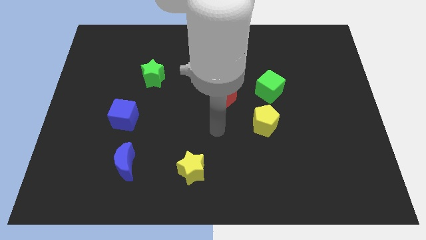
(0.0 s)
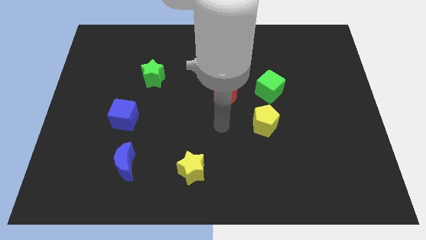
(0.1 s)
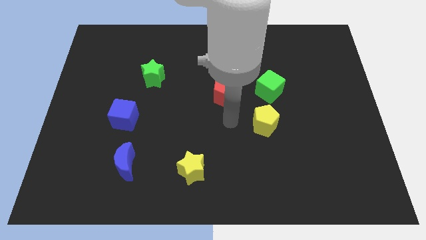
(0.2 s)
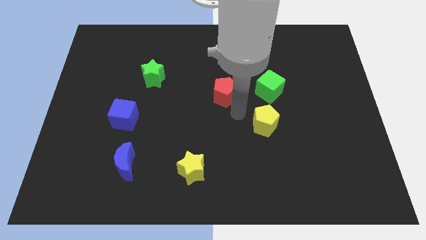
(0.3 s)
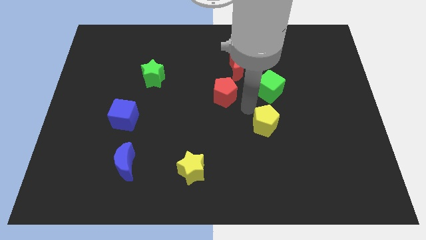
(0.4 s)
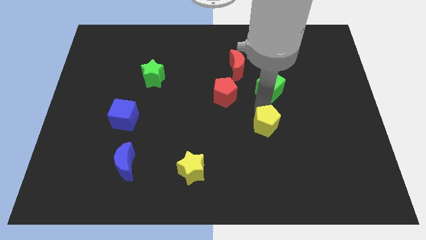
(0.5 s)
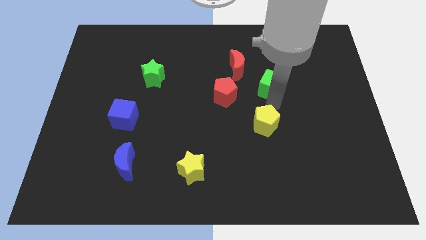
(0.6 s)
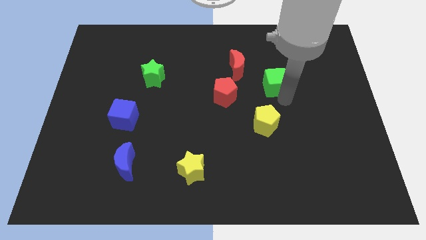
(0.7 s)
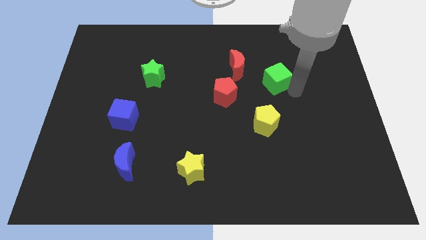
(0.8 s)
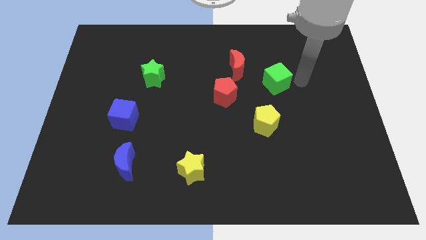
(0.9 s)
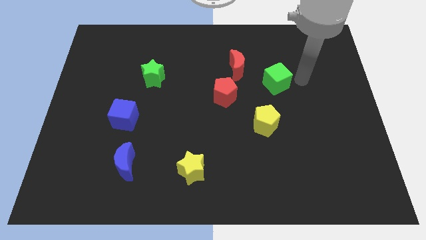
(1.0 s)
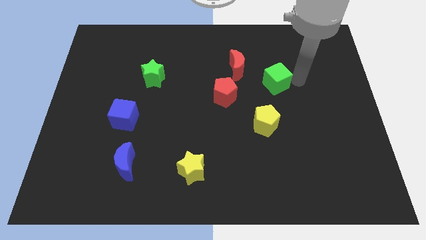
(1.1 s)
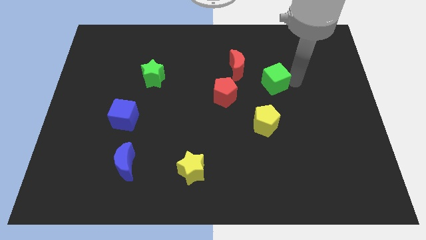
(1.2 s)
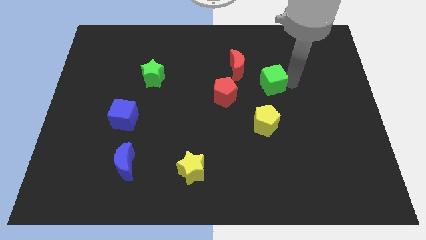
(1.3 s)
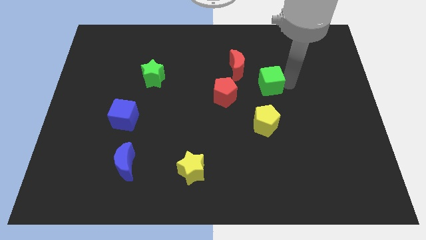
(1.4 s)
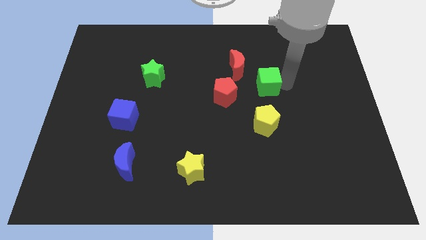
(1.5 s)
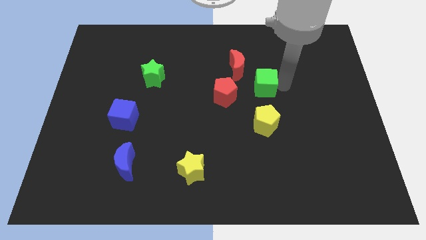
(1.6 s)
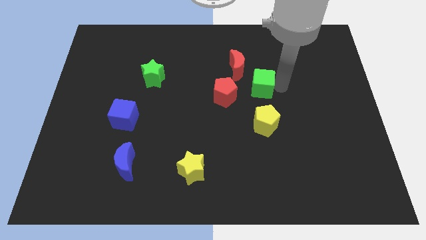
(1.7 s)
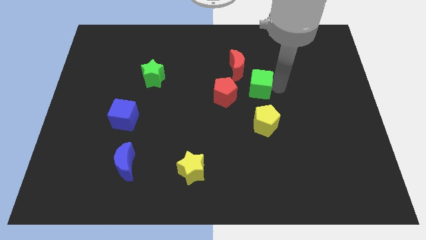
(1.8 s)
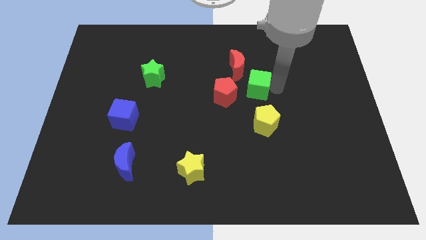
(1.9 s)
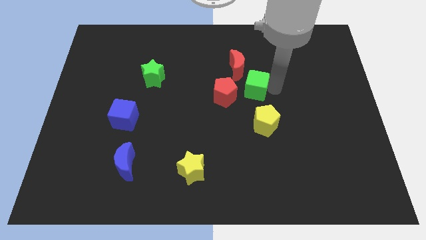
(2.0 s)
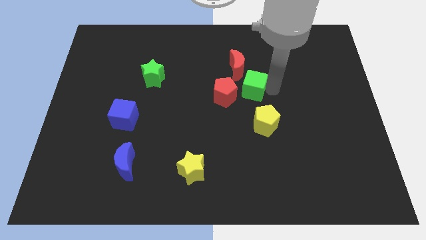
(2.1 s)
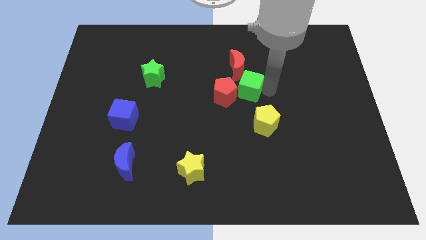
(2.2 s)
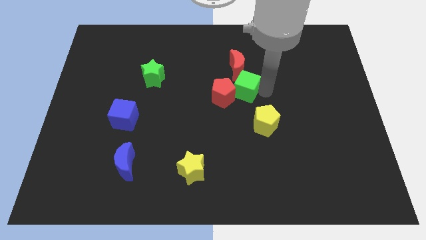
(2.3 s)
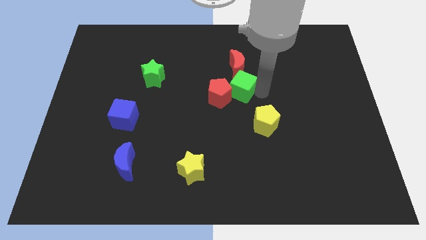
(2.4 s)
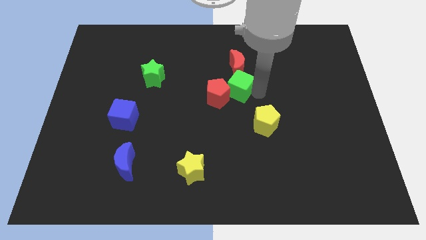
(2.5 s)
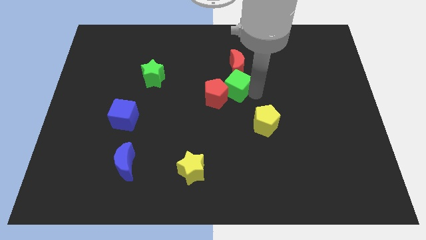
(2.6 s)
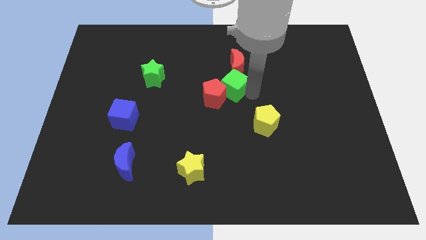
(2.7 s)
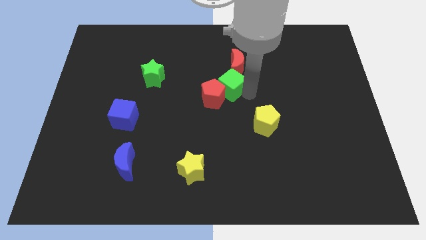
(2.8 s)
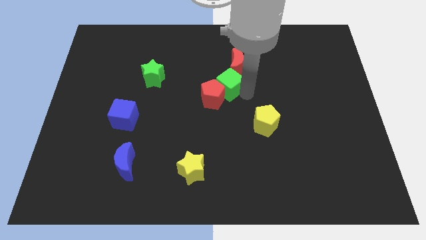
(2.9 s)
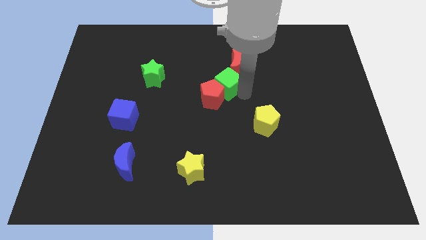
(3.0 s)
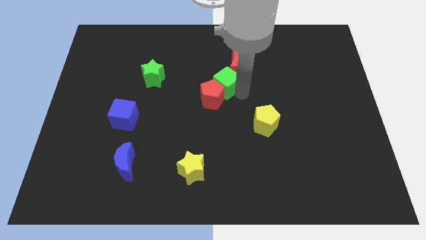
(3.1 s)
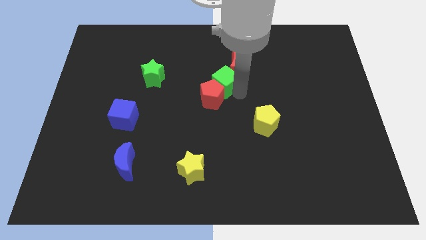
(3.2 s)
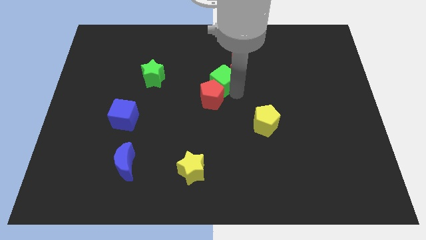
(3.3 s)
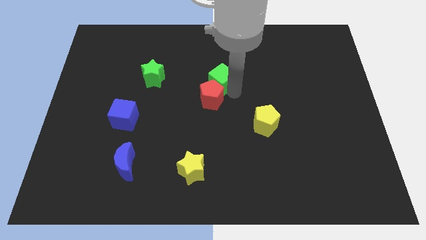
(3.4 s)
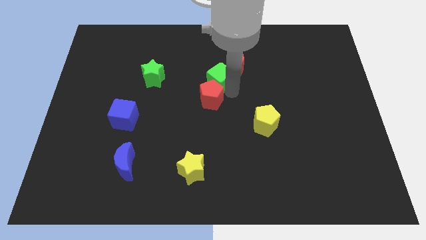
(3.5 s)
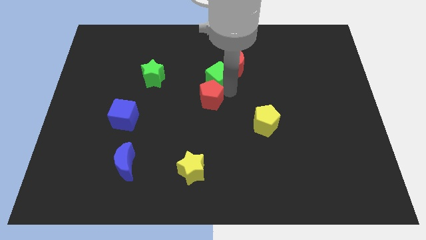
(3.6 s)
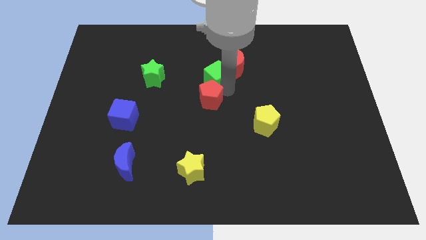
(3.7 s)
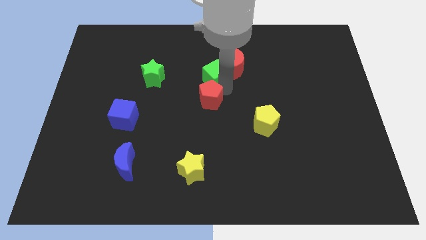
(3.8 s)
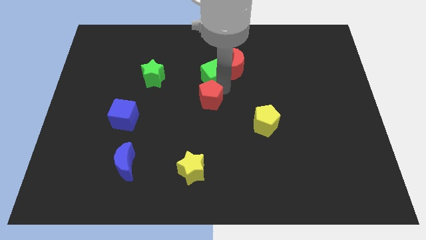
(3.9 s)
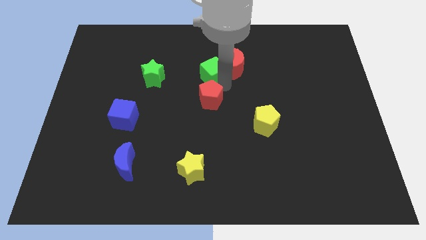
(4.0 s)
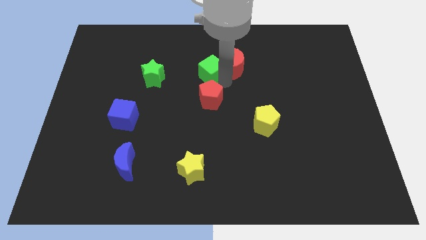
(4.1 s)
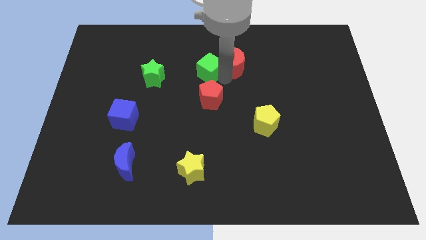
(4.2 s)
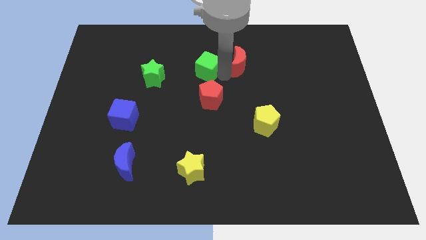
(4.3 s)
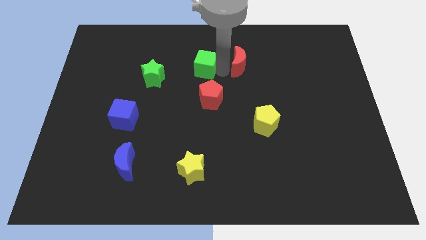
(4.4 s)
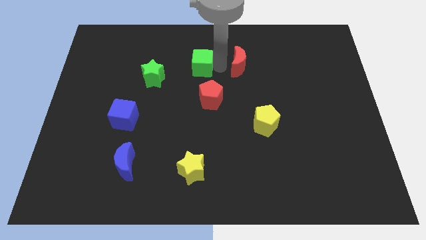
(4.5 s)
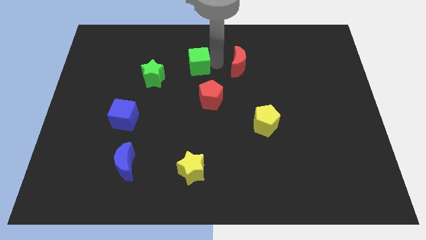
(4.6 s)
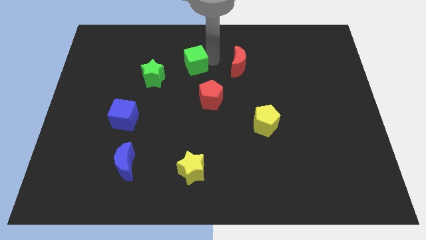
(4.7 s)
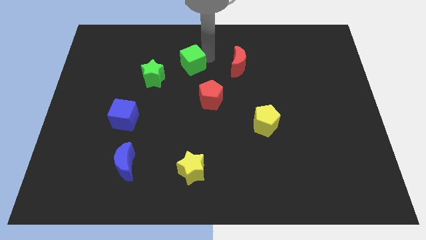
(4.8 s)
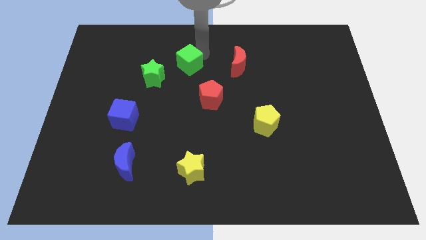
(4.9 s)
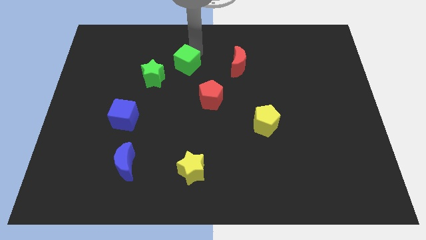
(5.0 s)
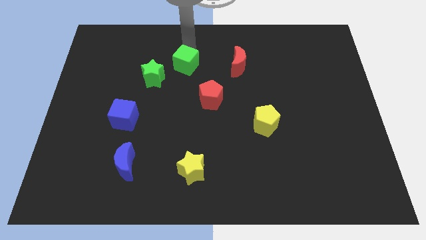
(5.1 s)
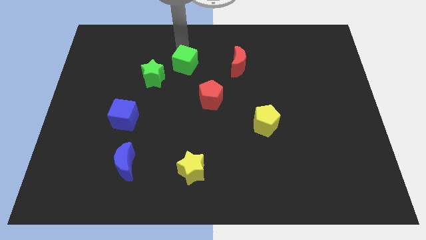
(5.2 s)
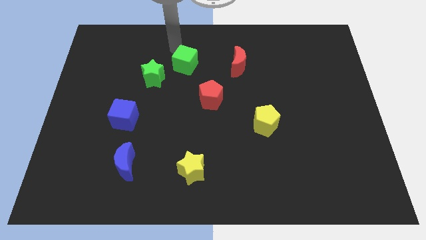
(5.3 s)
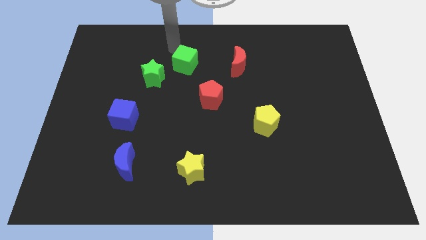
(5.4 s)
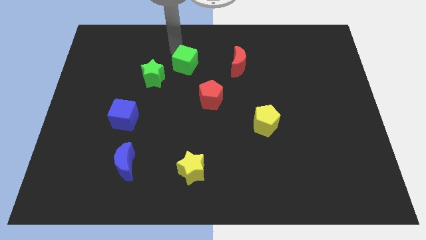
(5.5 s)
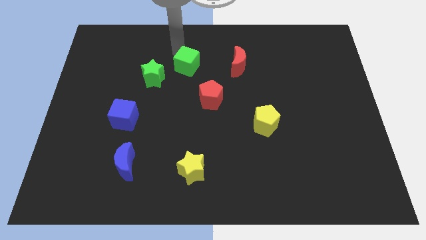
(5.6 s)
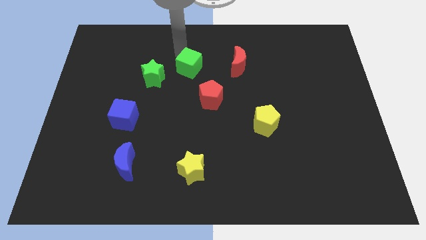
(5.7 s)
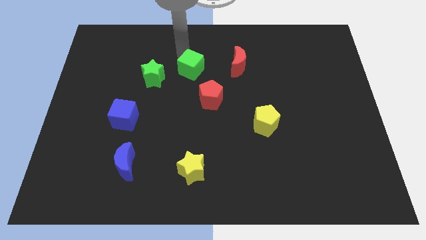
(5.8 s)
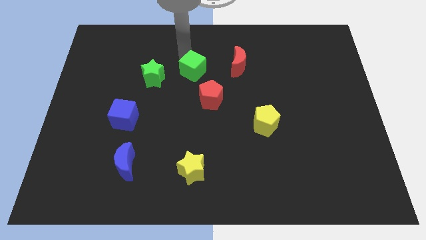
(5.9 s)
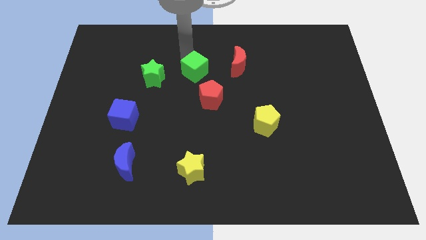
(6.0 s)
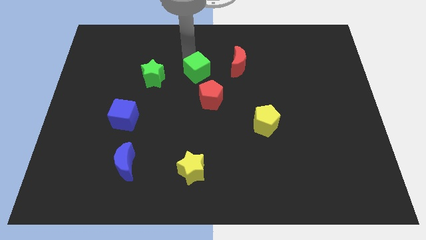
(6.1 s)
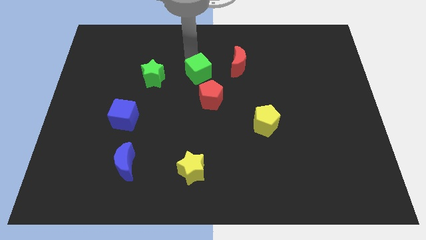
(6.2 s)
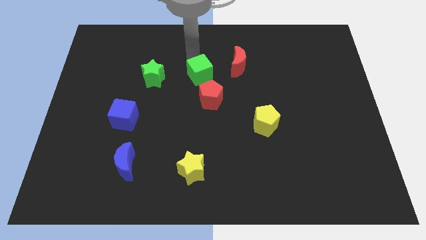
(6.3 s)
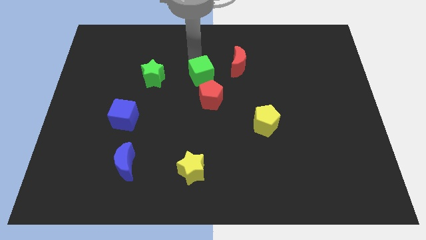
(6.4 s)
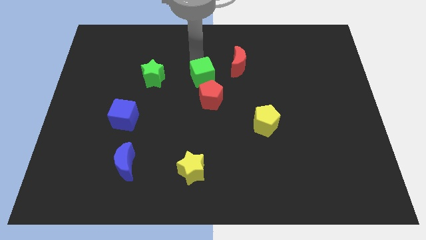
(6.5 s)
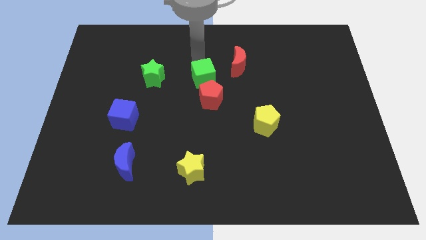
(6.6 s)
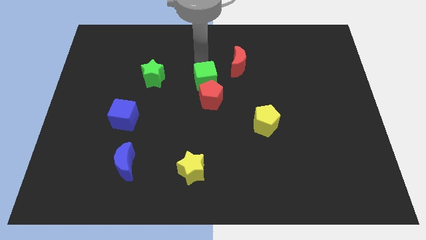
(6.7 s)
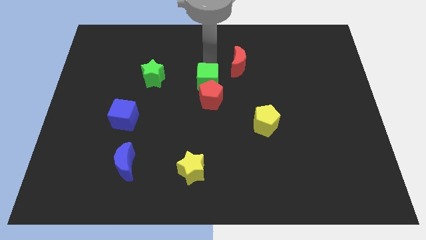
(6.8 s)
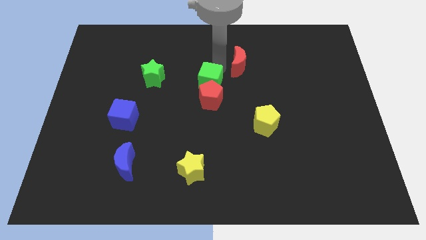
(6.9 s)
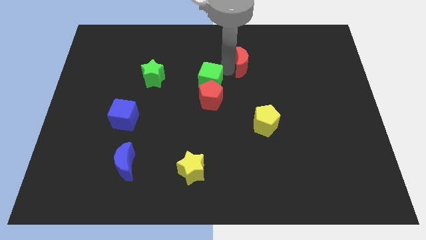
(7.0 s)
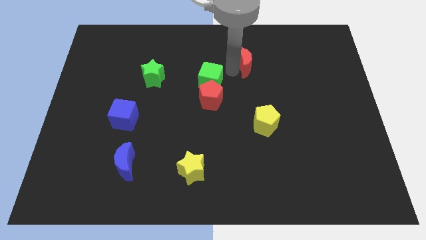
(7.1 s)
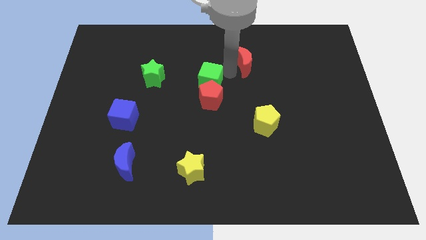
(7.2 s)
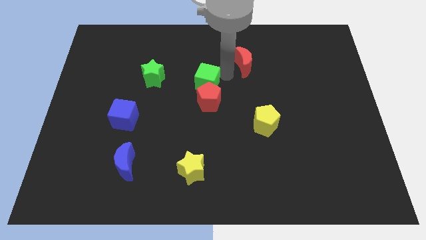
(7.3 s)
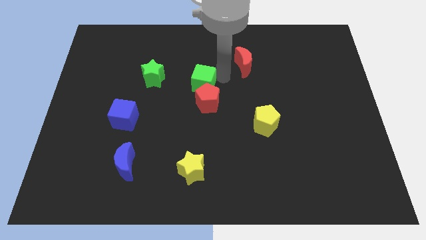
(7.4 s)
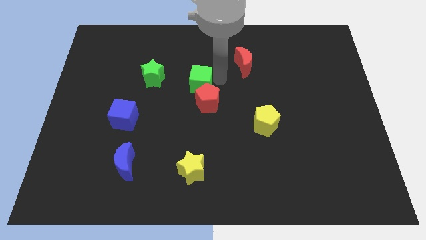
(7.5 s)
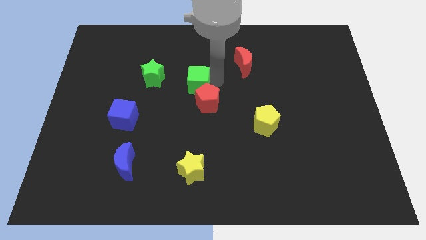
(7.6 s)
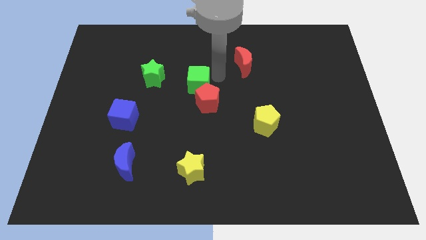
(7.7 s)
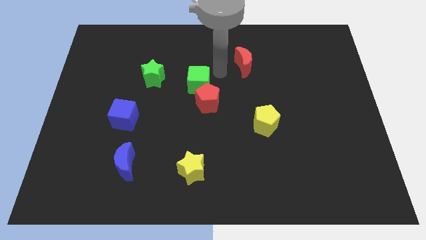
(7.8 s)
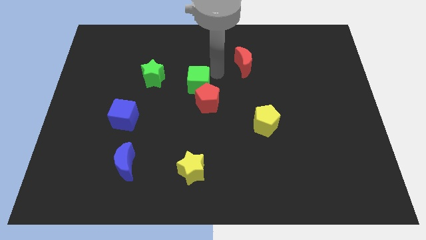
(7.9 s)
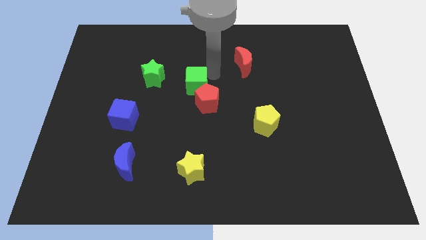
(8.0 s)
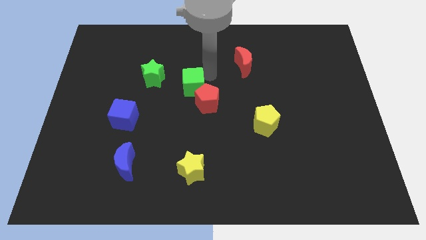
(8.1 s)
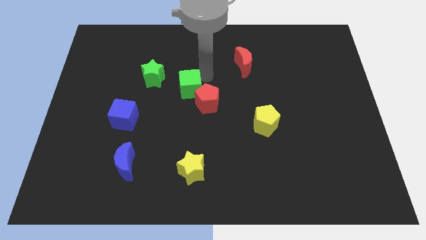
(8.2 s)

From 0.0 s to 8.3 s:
slide the green cube to the left of the red pentagon
